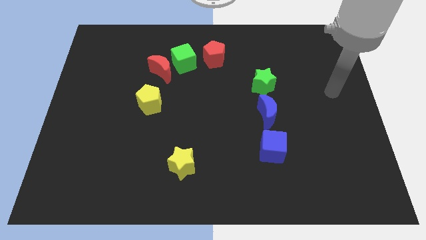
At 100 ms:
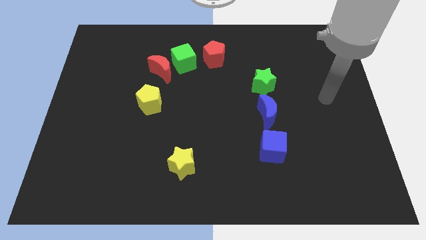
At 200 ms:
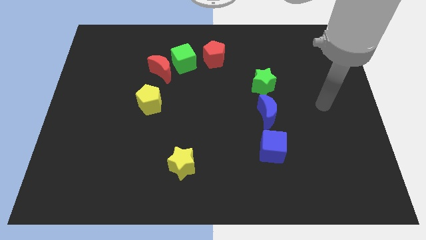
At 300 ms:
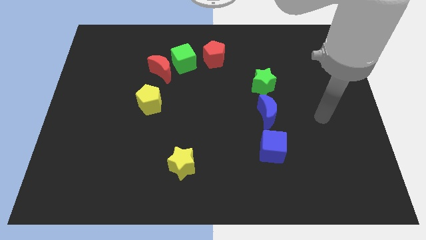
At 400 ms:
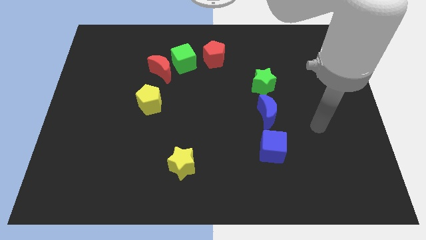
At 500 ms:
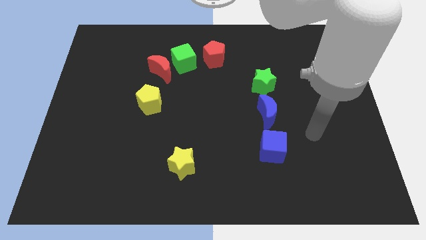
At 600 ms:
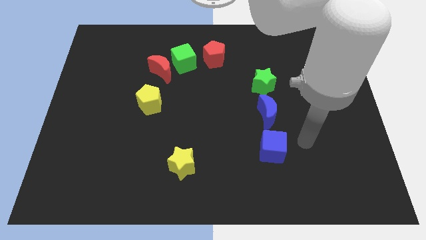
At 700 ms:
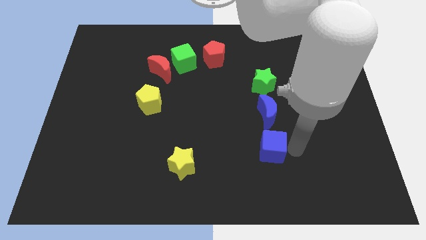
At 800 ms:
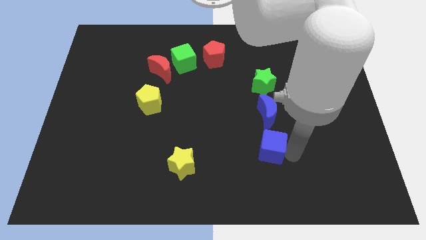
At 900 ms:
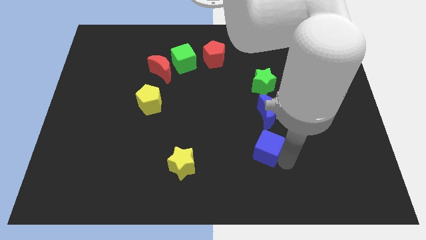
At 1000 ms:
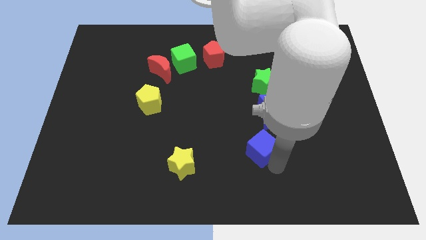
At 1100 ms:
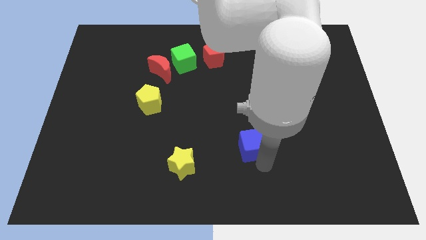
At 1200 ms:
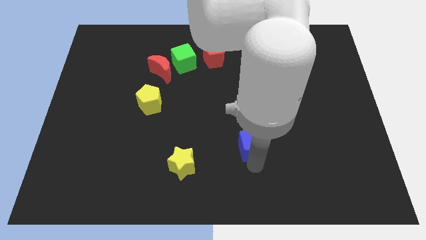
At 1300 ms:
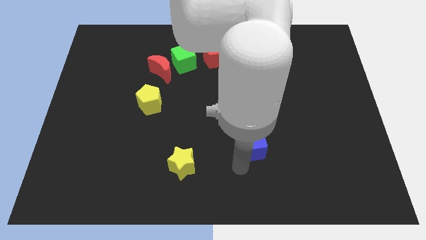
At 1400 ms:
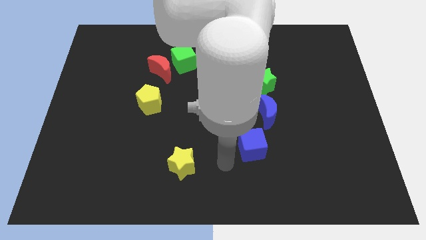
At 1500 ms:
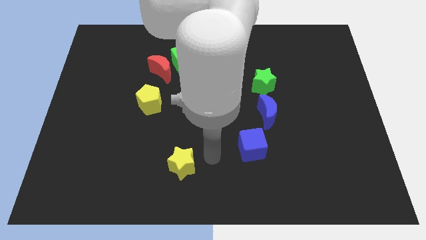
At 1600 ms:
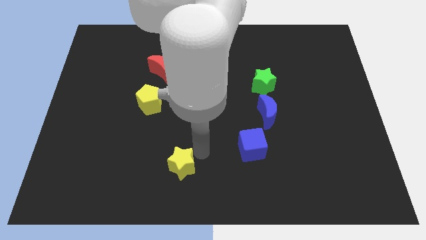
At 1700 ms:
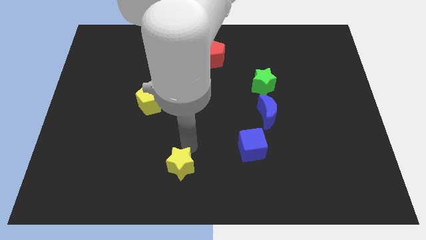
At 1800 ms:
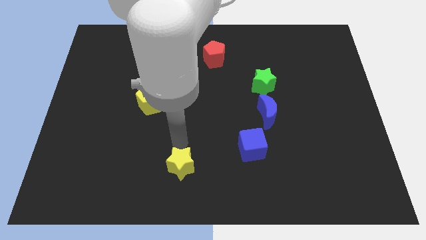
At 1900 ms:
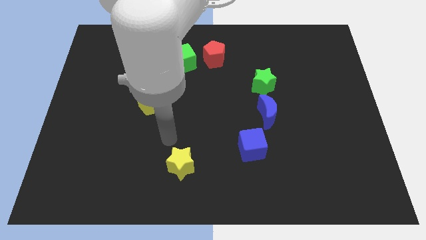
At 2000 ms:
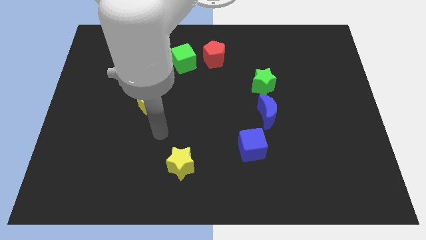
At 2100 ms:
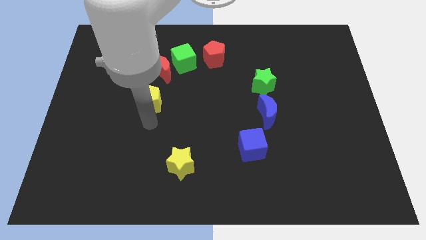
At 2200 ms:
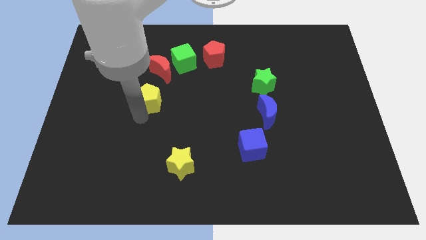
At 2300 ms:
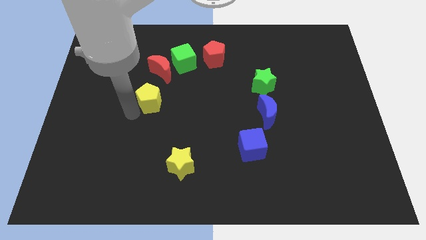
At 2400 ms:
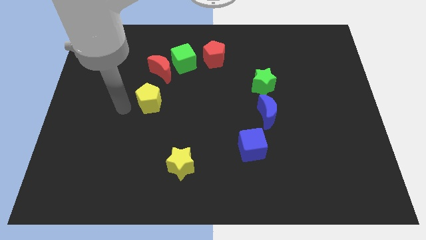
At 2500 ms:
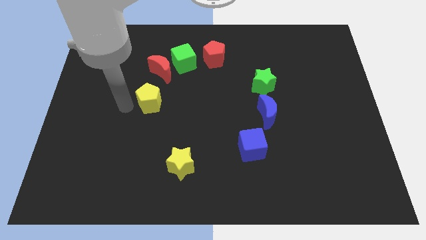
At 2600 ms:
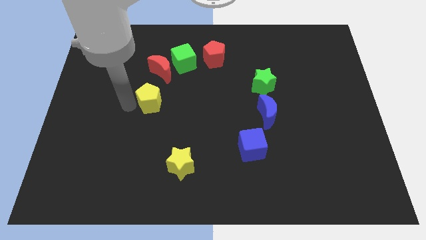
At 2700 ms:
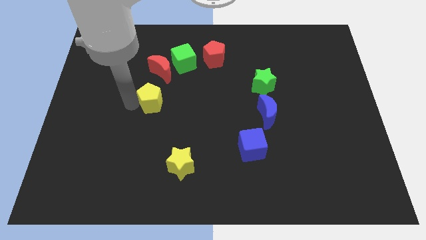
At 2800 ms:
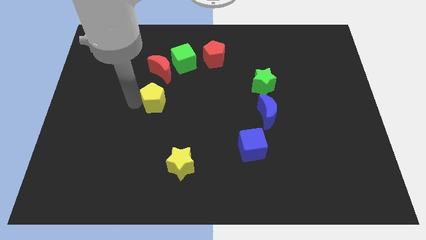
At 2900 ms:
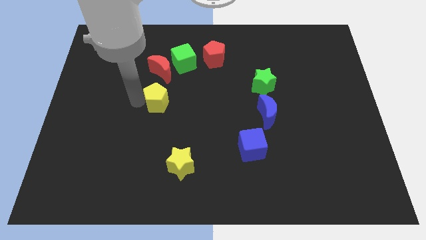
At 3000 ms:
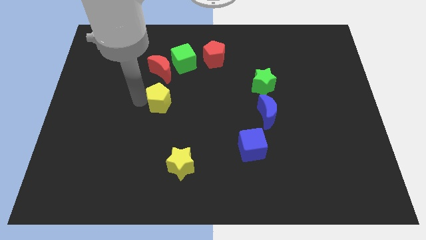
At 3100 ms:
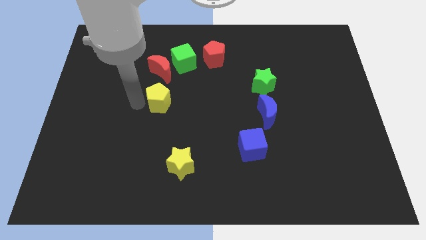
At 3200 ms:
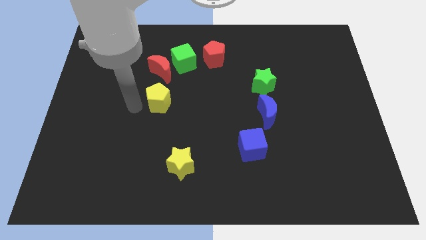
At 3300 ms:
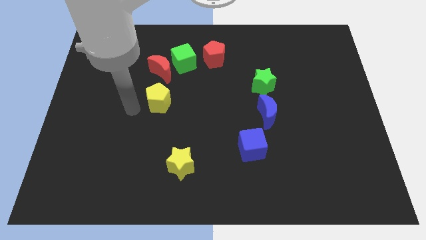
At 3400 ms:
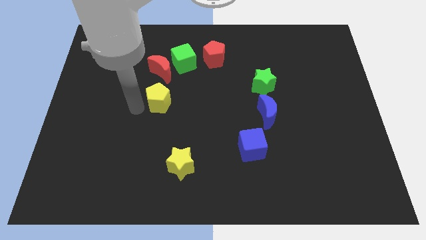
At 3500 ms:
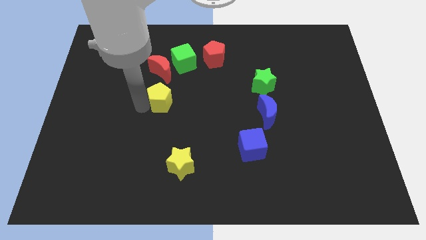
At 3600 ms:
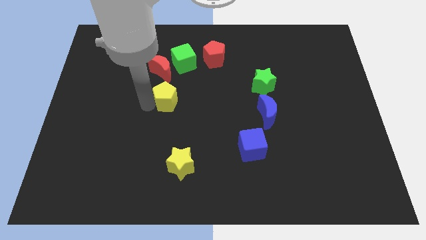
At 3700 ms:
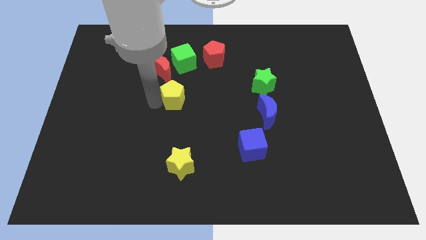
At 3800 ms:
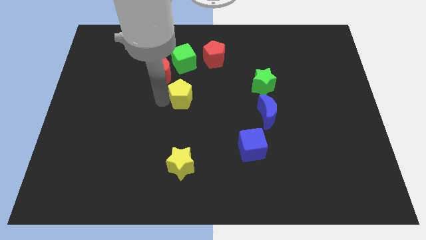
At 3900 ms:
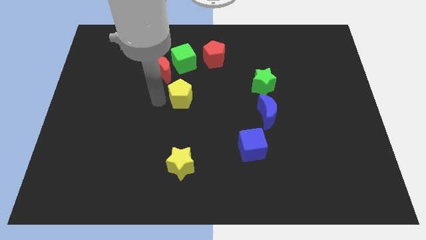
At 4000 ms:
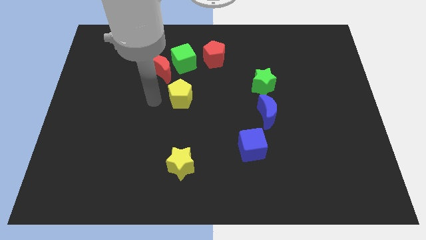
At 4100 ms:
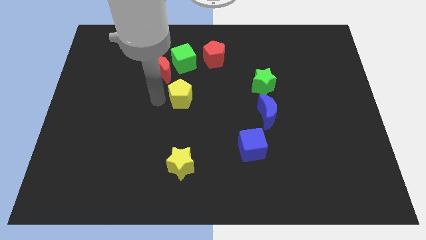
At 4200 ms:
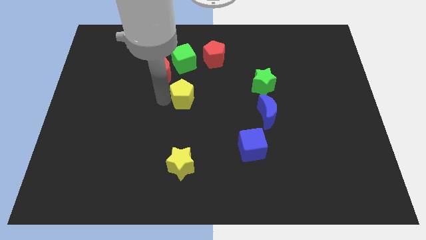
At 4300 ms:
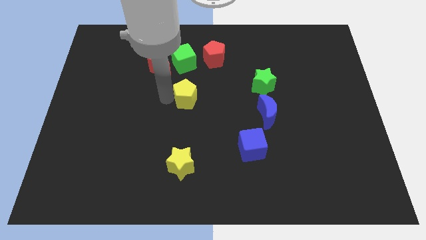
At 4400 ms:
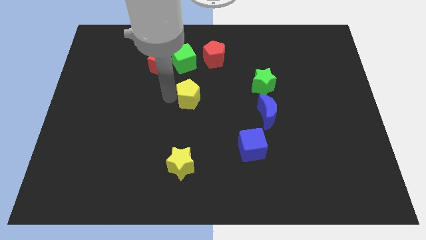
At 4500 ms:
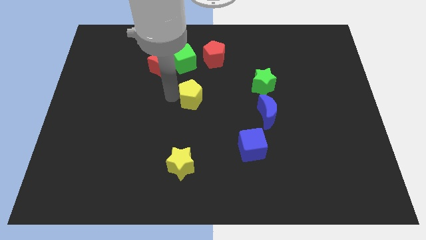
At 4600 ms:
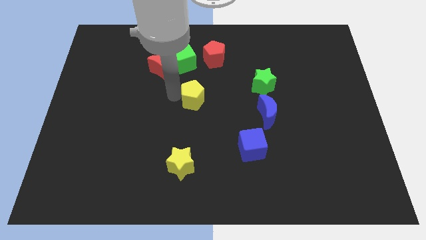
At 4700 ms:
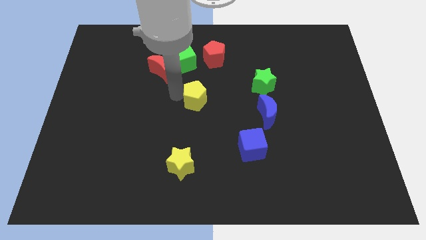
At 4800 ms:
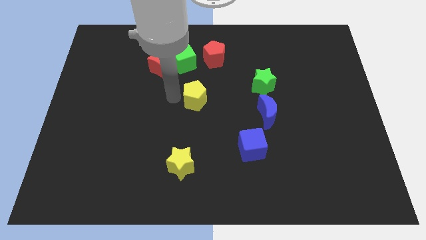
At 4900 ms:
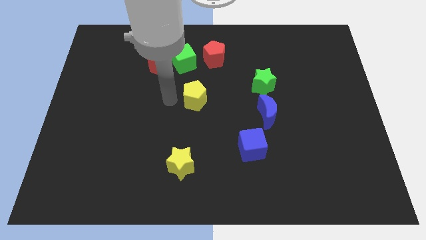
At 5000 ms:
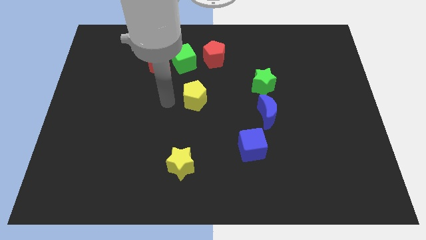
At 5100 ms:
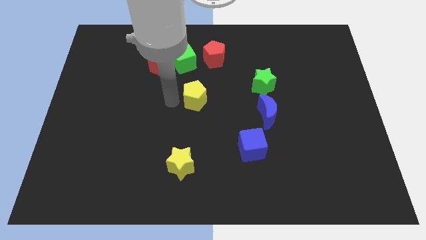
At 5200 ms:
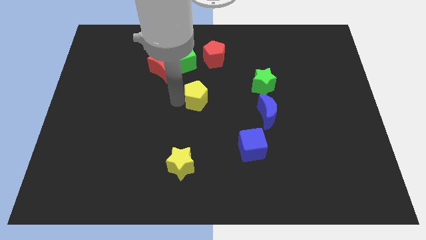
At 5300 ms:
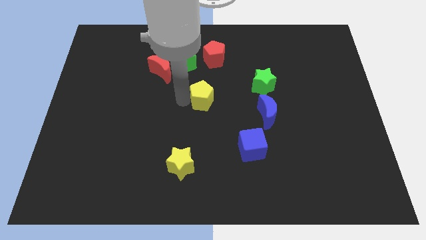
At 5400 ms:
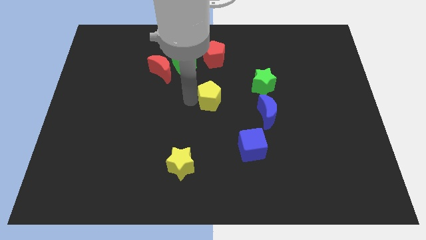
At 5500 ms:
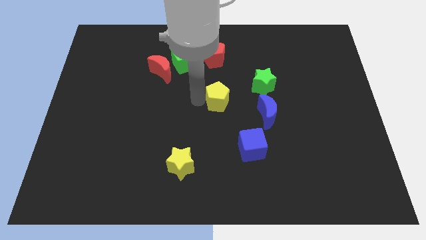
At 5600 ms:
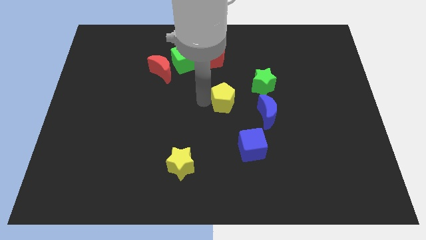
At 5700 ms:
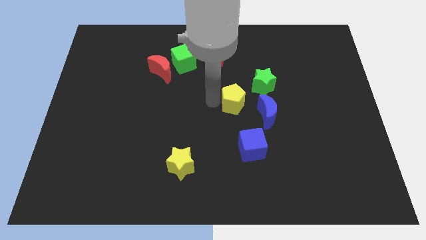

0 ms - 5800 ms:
move the yellow pentagon to the right

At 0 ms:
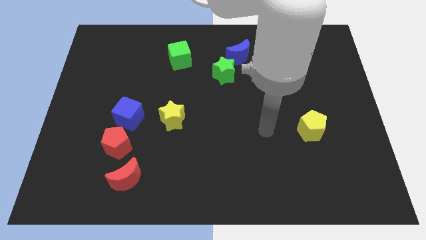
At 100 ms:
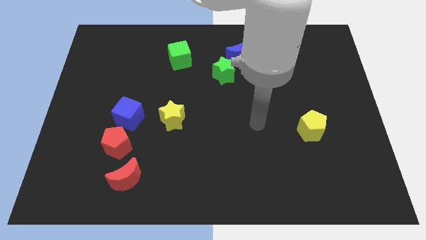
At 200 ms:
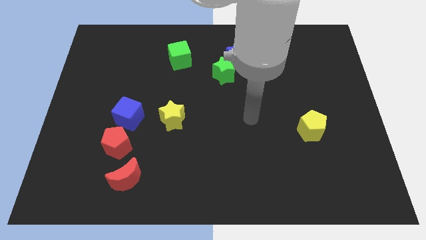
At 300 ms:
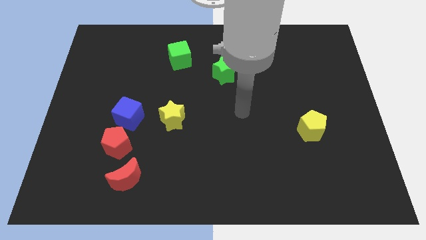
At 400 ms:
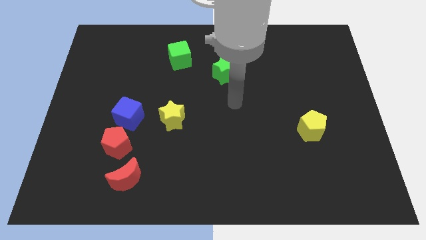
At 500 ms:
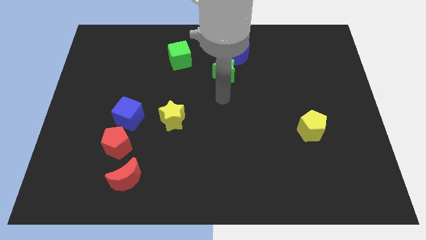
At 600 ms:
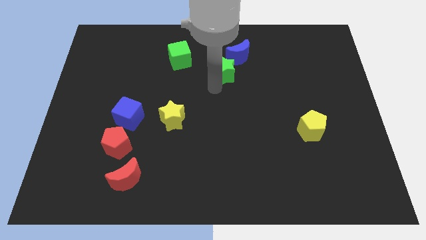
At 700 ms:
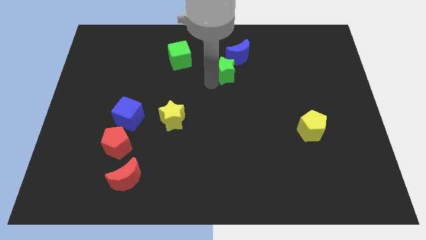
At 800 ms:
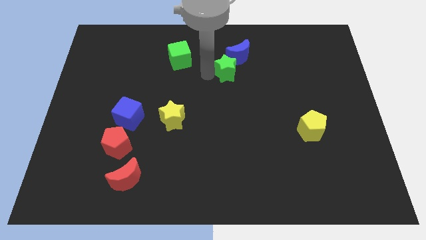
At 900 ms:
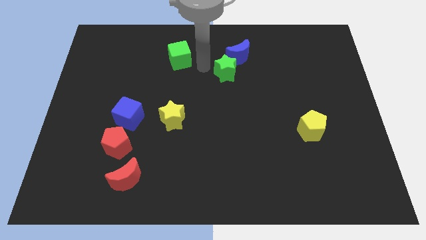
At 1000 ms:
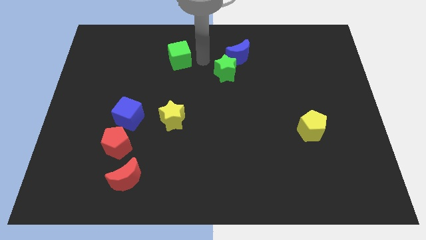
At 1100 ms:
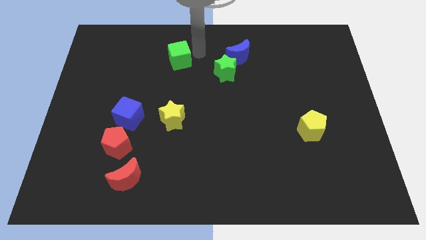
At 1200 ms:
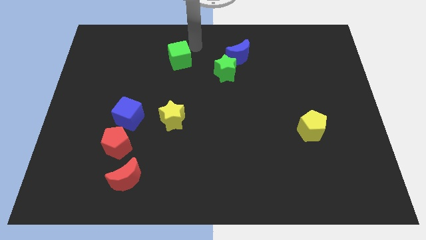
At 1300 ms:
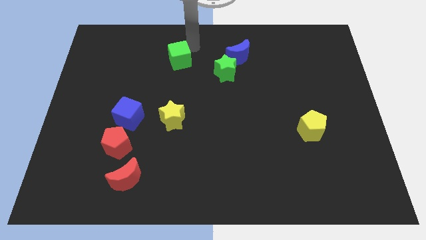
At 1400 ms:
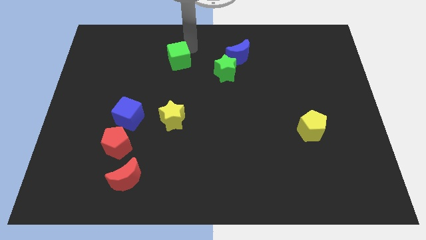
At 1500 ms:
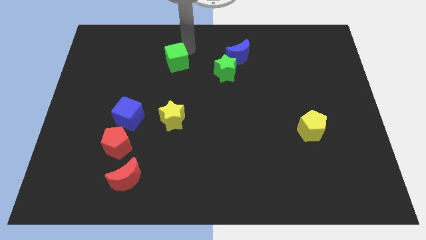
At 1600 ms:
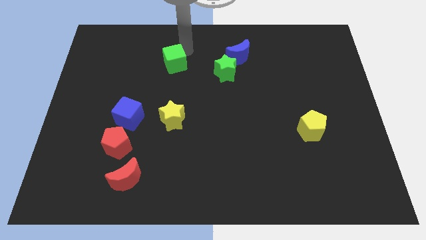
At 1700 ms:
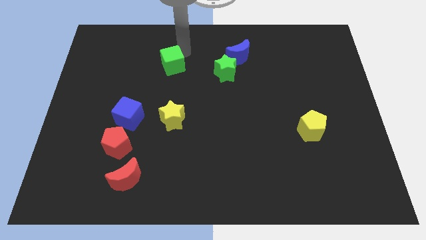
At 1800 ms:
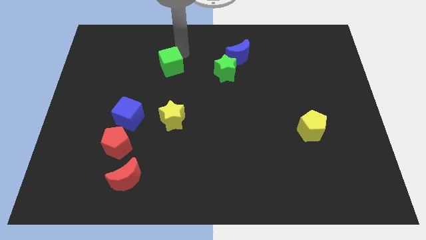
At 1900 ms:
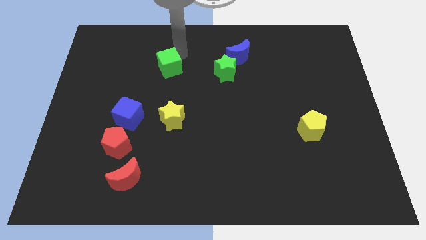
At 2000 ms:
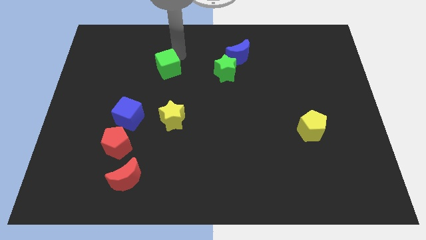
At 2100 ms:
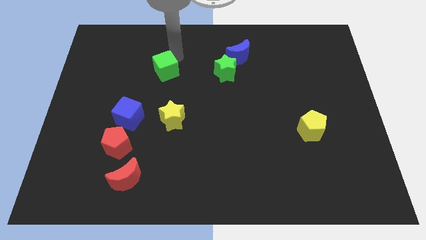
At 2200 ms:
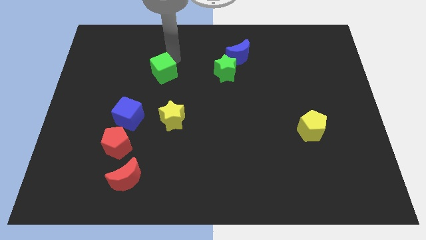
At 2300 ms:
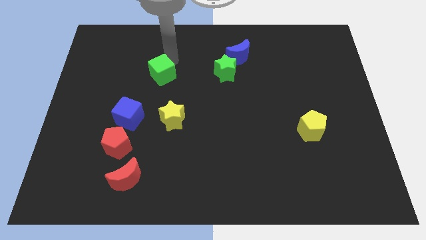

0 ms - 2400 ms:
slide the green cube down and to the left a little
